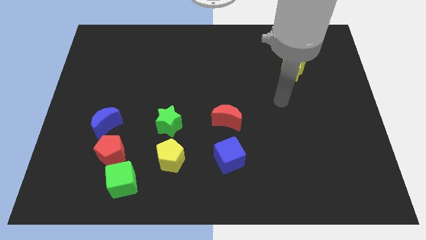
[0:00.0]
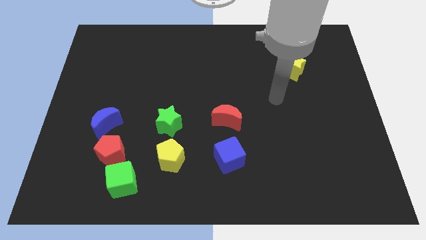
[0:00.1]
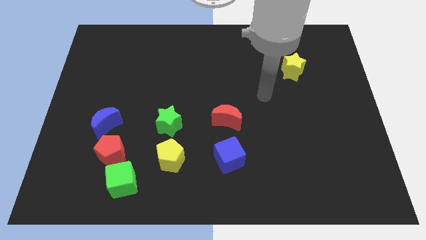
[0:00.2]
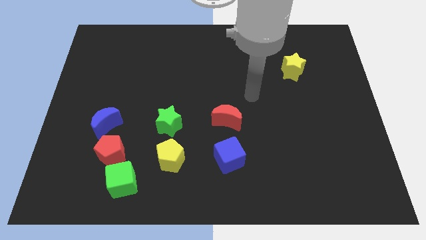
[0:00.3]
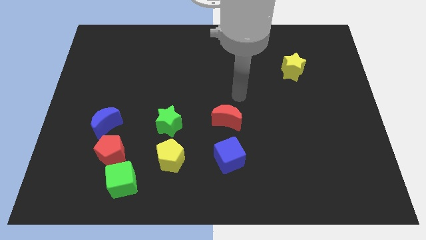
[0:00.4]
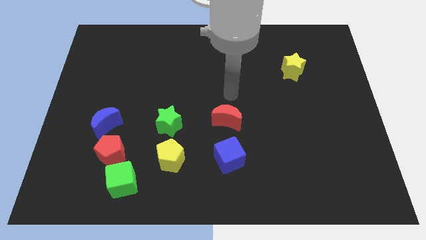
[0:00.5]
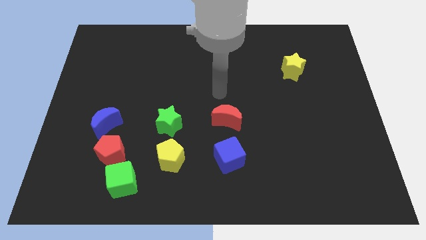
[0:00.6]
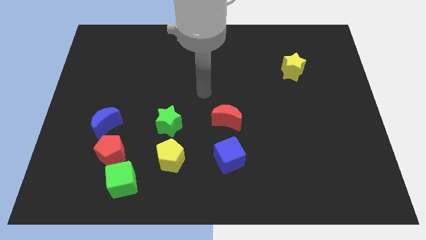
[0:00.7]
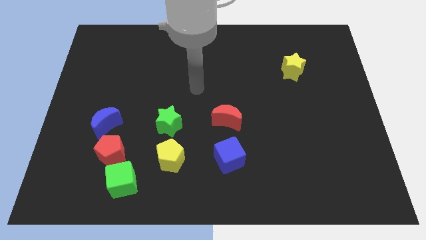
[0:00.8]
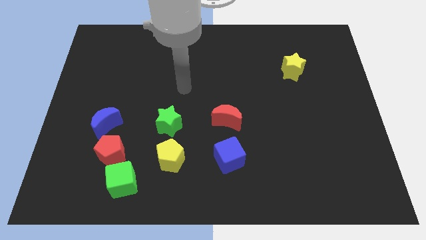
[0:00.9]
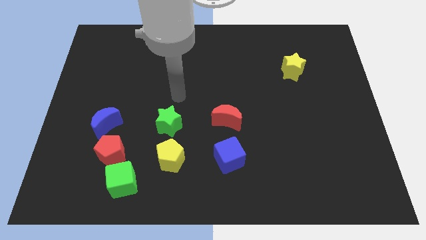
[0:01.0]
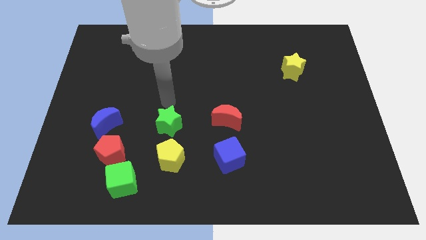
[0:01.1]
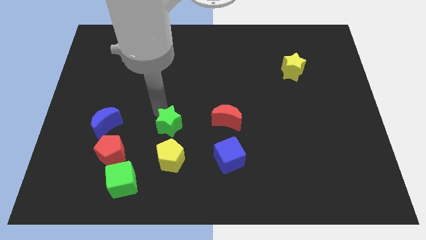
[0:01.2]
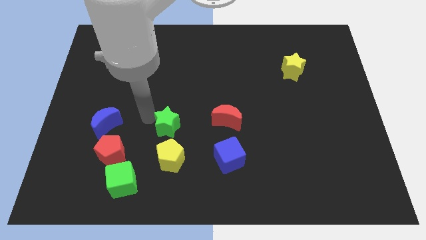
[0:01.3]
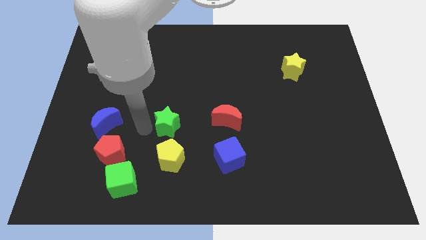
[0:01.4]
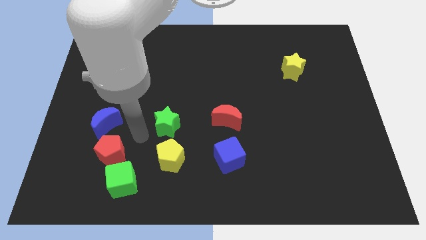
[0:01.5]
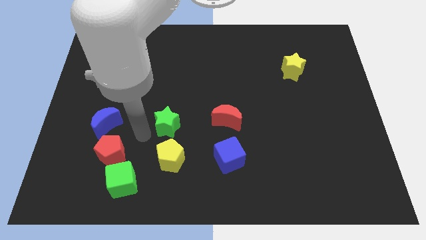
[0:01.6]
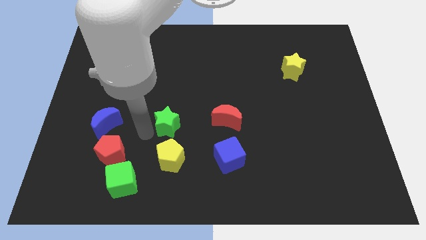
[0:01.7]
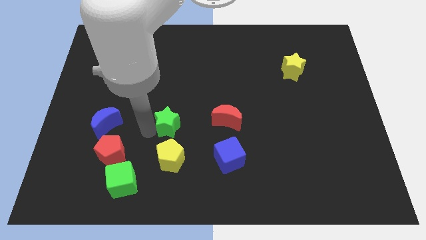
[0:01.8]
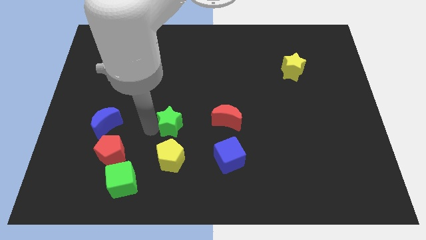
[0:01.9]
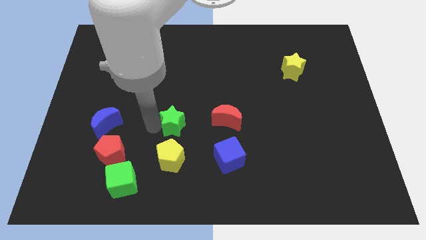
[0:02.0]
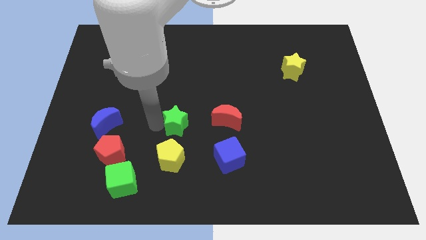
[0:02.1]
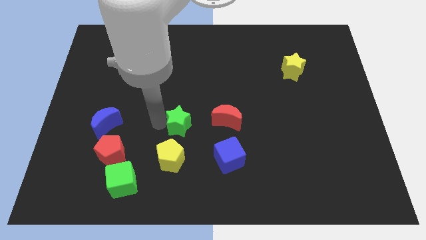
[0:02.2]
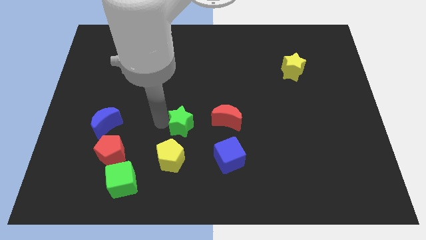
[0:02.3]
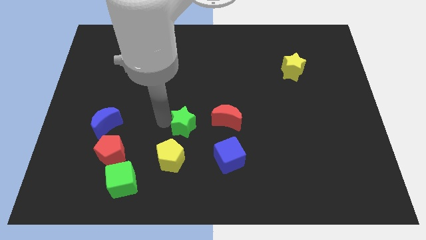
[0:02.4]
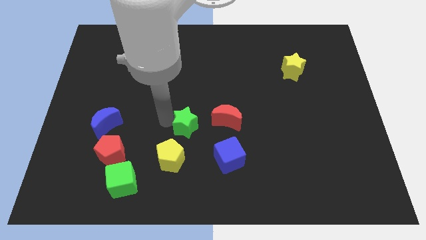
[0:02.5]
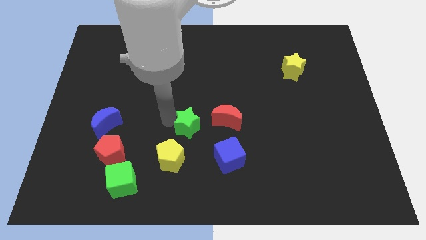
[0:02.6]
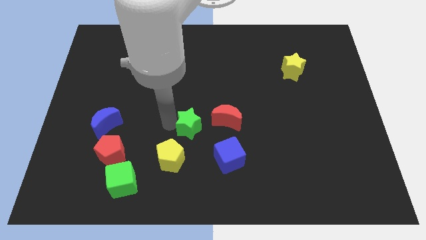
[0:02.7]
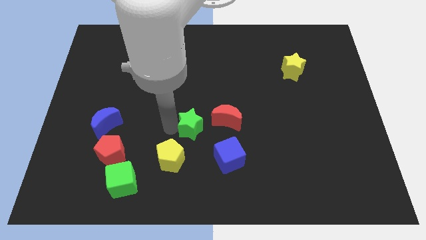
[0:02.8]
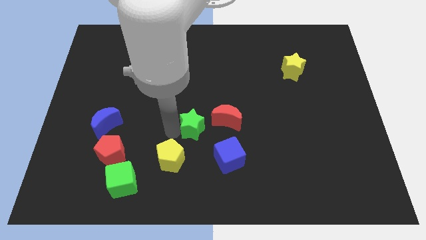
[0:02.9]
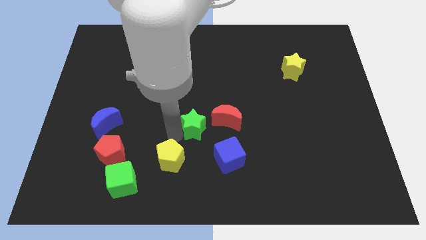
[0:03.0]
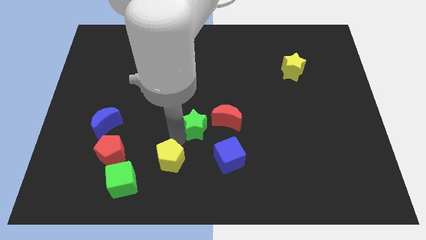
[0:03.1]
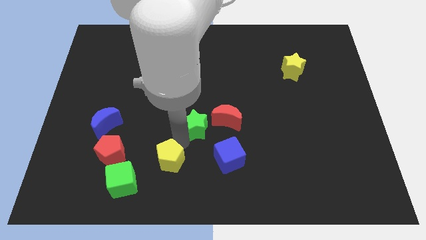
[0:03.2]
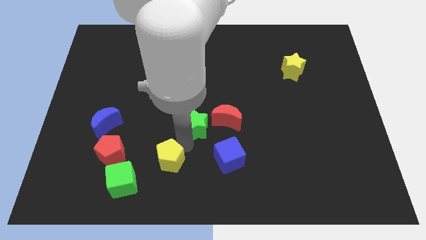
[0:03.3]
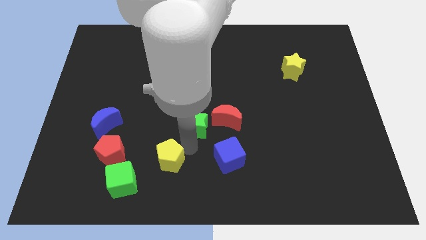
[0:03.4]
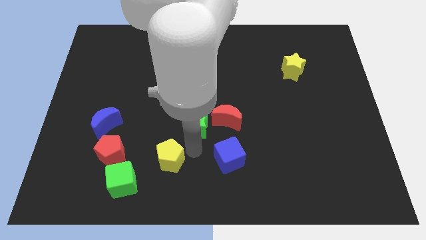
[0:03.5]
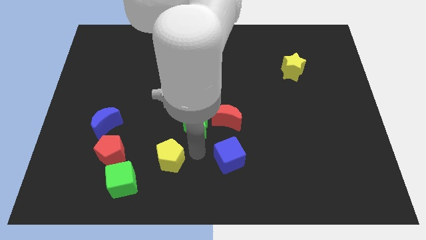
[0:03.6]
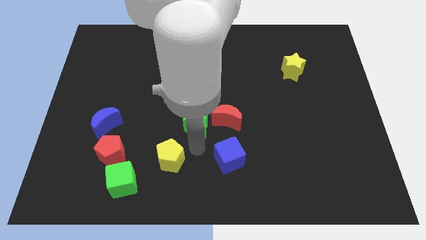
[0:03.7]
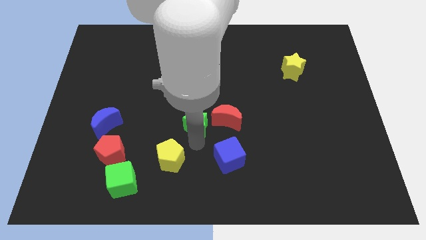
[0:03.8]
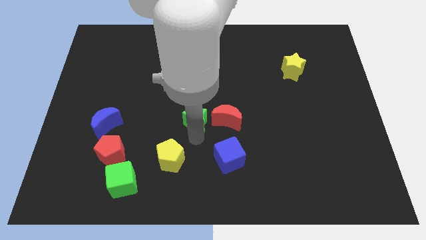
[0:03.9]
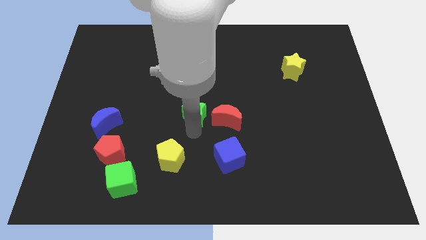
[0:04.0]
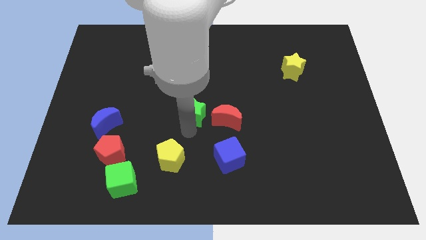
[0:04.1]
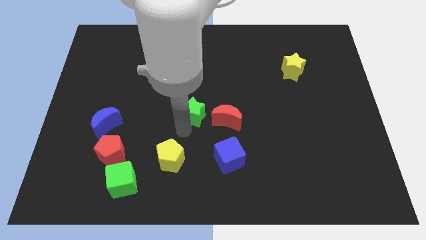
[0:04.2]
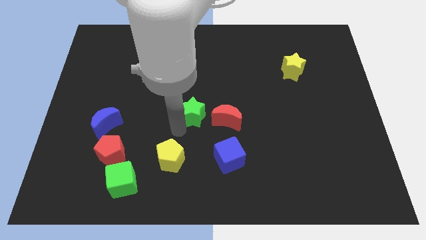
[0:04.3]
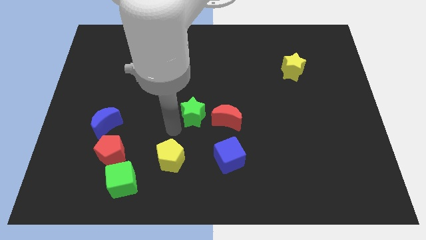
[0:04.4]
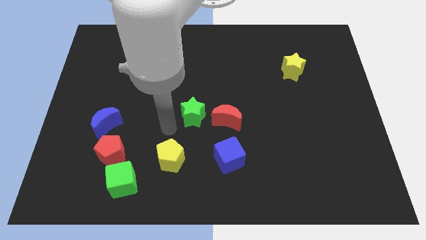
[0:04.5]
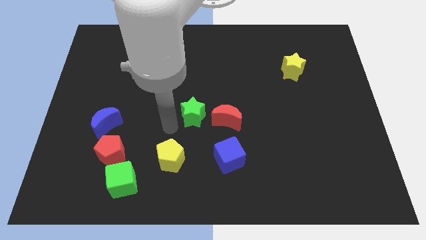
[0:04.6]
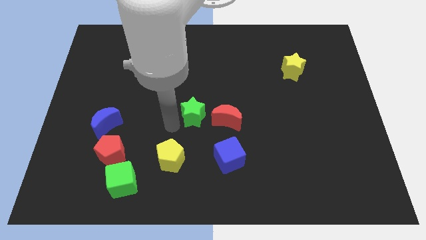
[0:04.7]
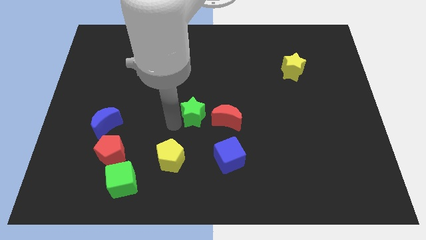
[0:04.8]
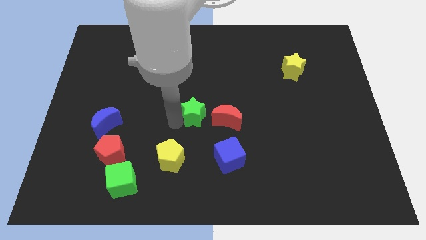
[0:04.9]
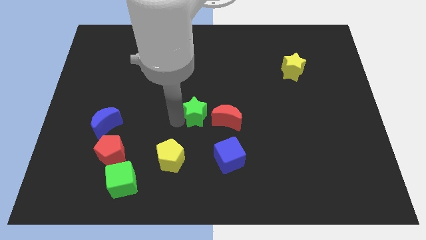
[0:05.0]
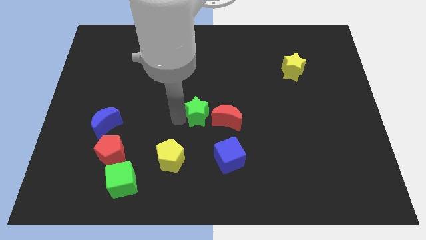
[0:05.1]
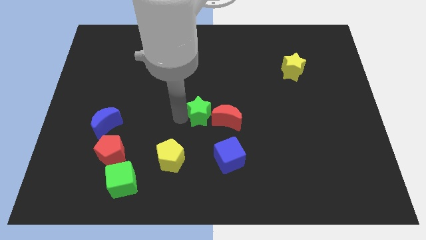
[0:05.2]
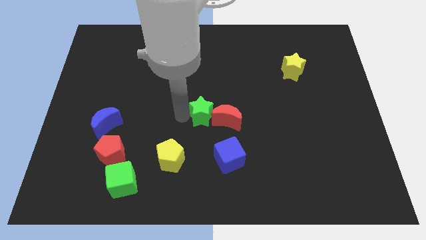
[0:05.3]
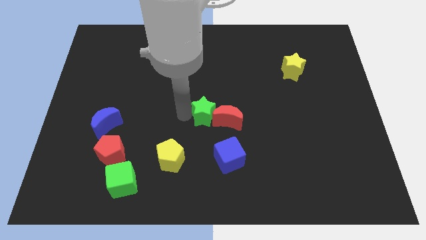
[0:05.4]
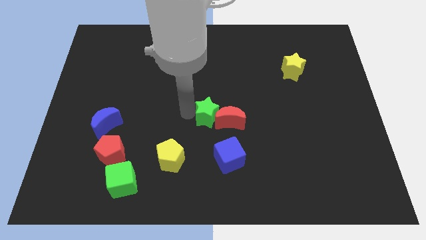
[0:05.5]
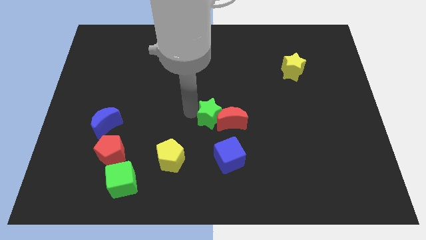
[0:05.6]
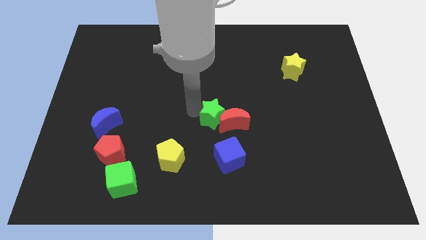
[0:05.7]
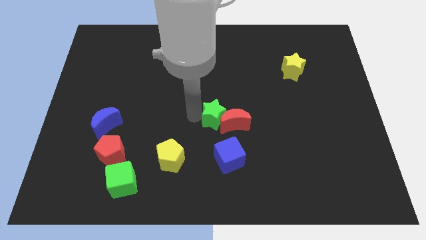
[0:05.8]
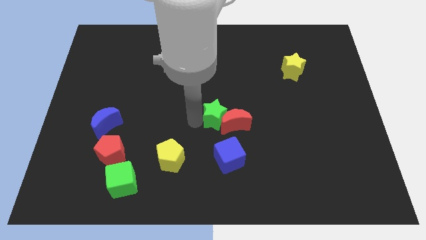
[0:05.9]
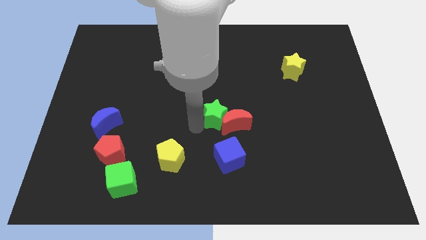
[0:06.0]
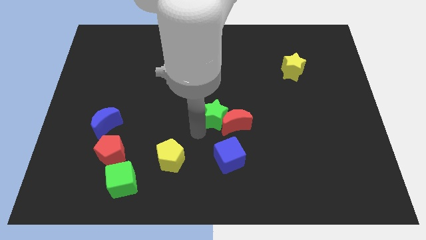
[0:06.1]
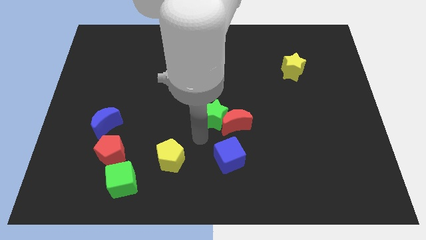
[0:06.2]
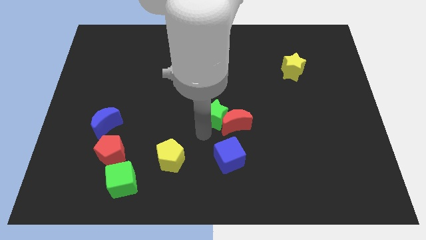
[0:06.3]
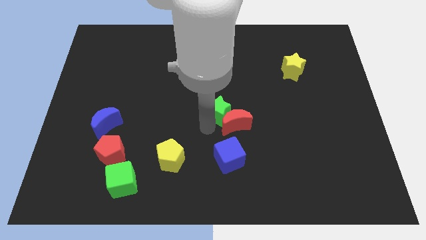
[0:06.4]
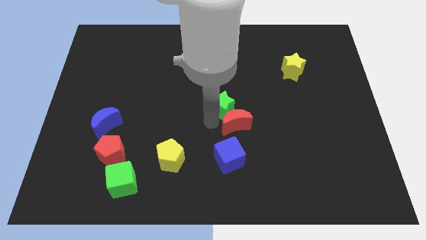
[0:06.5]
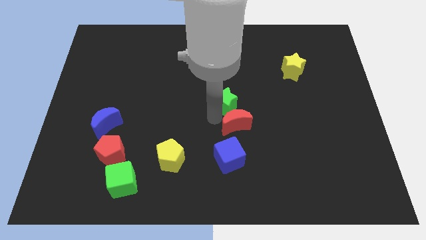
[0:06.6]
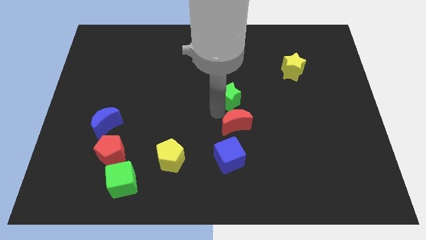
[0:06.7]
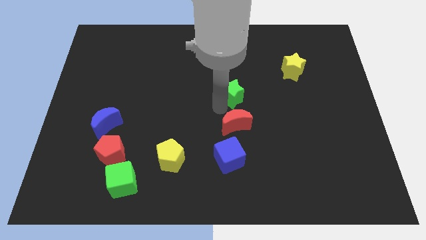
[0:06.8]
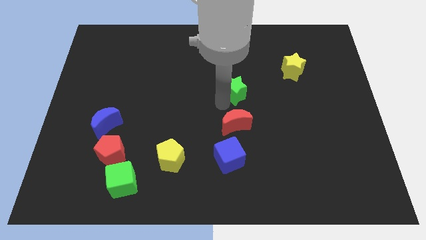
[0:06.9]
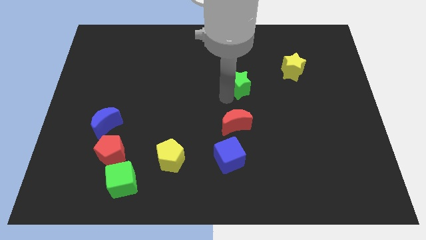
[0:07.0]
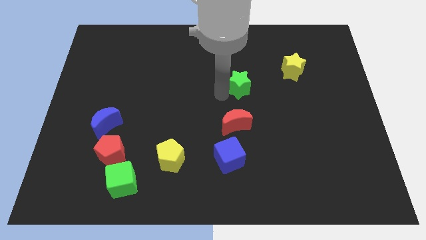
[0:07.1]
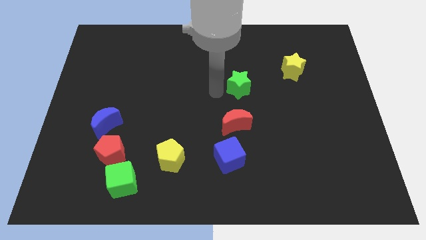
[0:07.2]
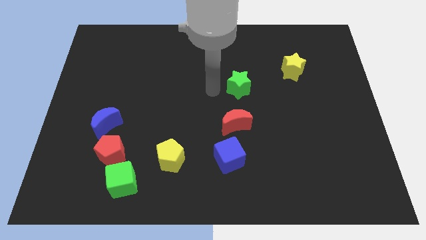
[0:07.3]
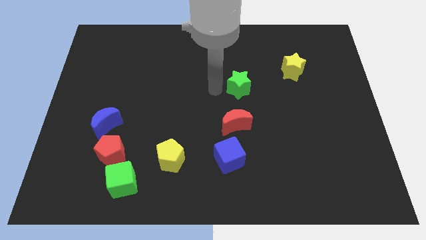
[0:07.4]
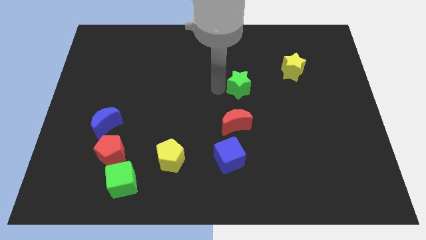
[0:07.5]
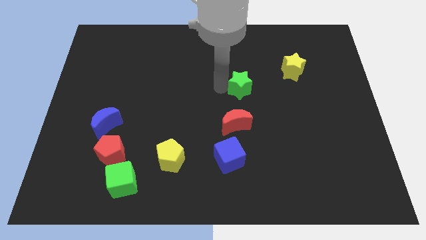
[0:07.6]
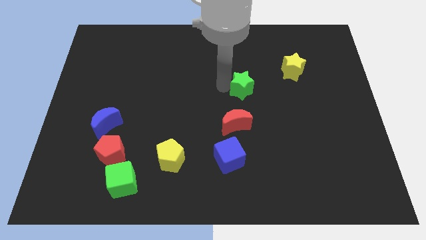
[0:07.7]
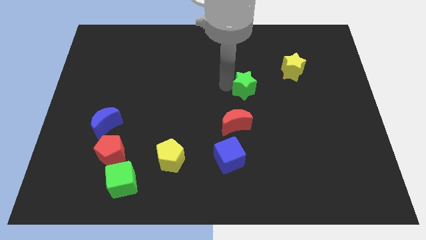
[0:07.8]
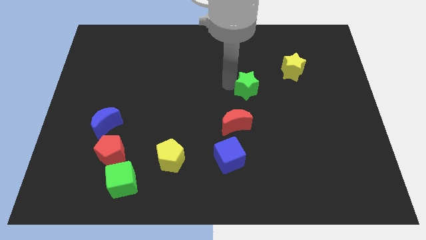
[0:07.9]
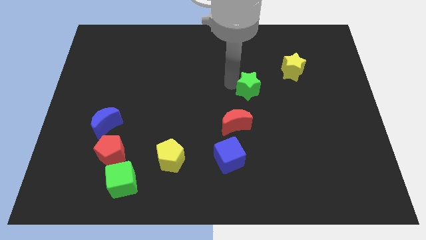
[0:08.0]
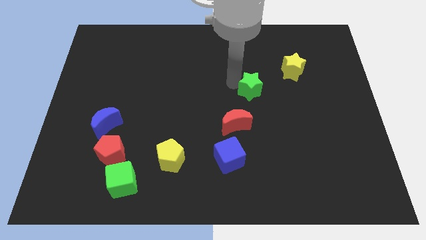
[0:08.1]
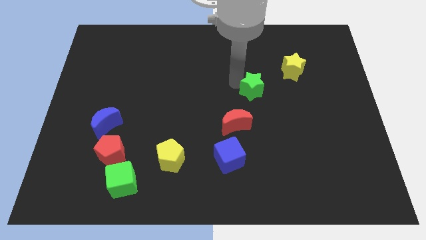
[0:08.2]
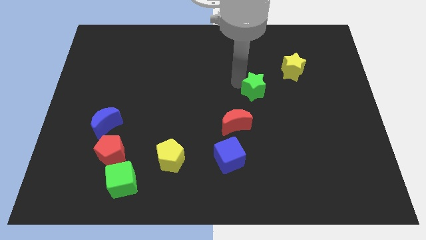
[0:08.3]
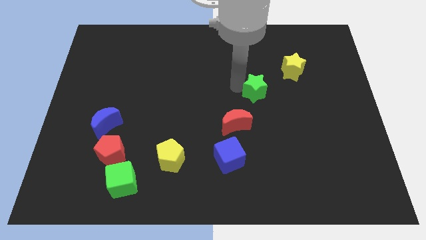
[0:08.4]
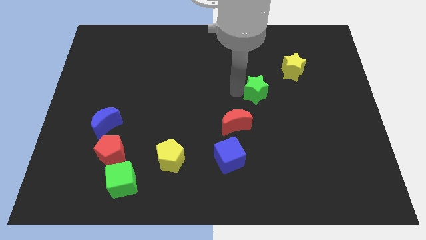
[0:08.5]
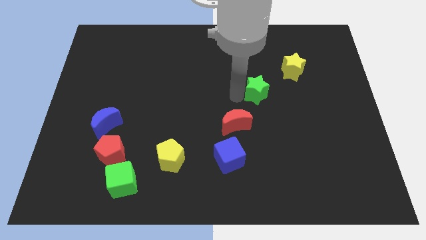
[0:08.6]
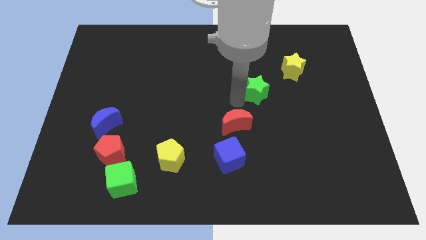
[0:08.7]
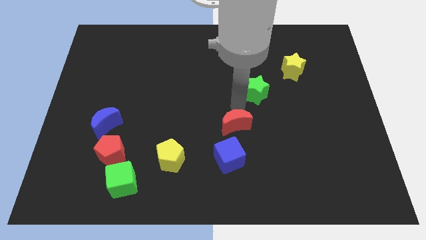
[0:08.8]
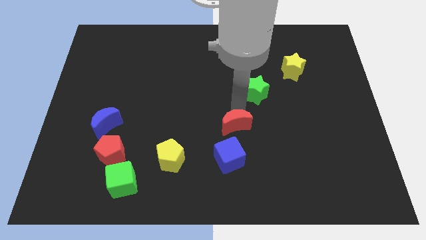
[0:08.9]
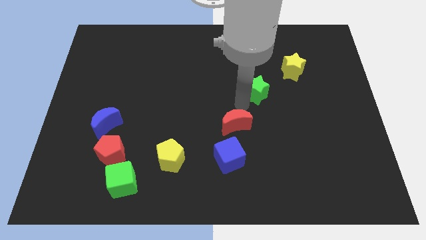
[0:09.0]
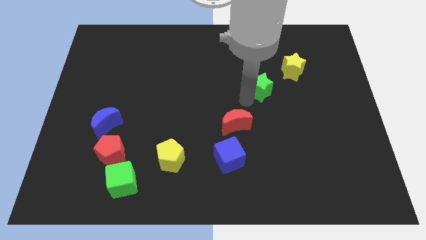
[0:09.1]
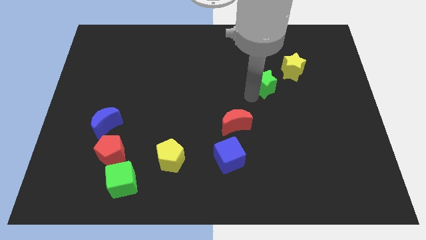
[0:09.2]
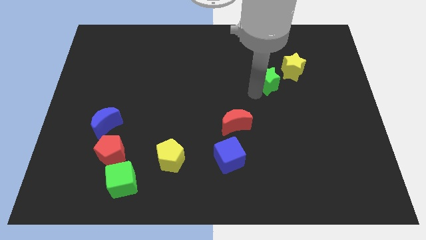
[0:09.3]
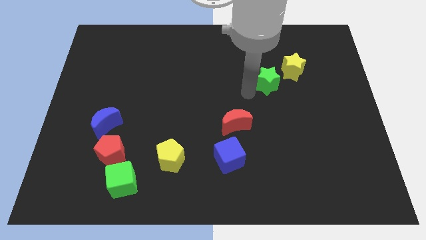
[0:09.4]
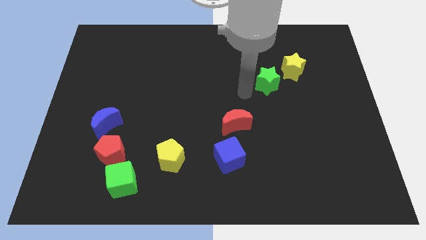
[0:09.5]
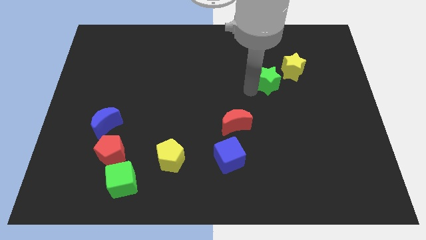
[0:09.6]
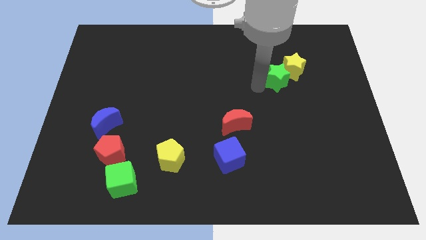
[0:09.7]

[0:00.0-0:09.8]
move the green star next to the yellow star
